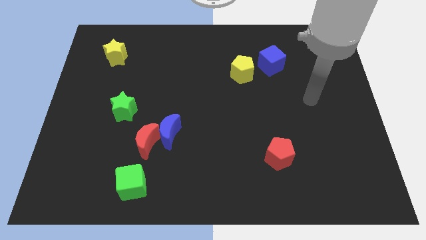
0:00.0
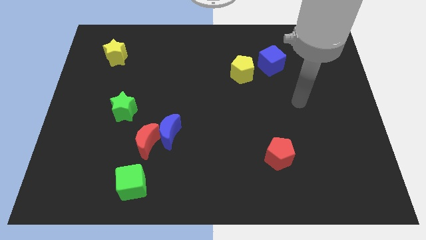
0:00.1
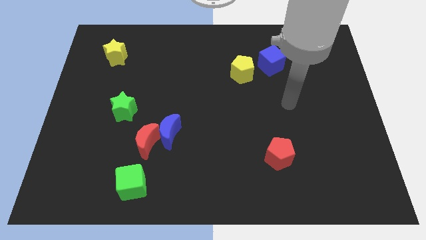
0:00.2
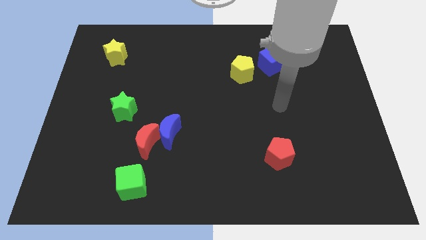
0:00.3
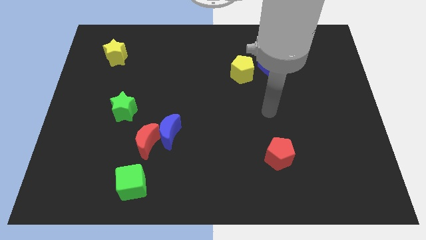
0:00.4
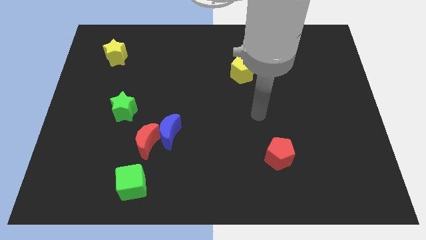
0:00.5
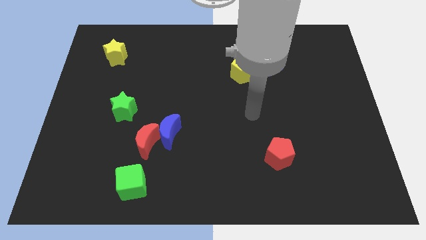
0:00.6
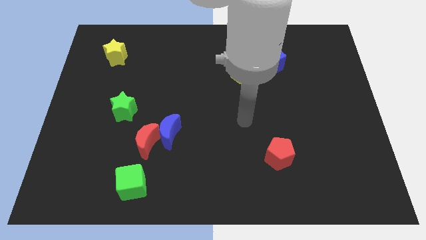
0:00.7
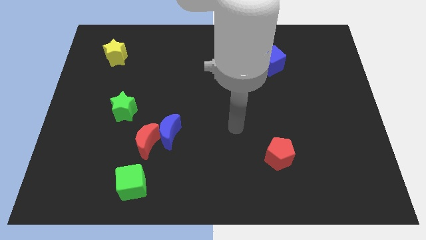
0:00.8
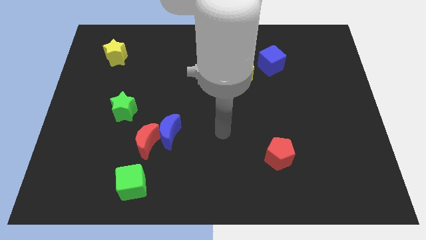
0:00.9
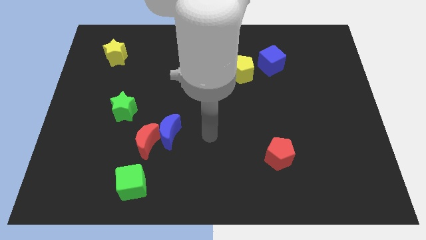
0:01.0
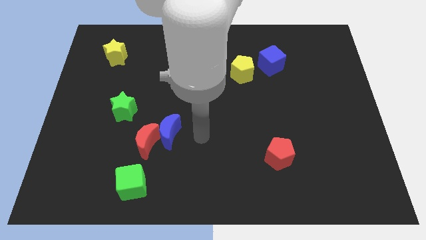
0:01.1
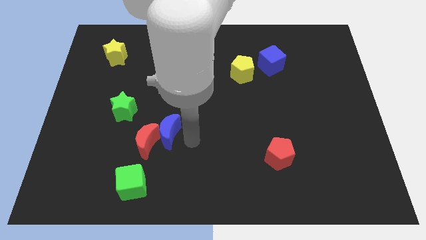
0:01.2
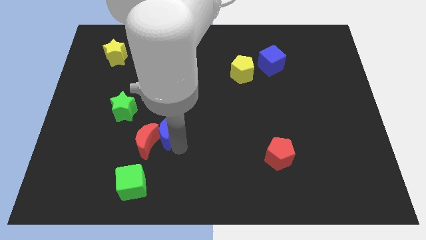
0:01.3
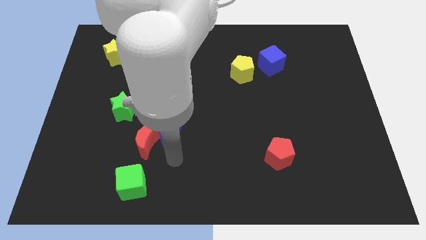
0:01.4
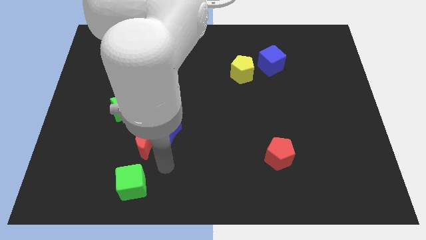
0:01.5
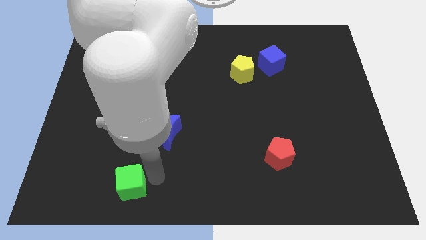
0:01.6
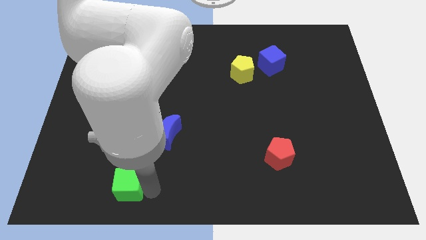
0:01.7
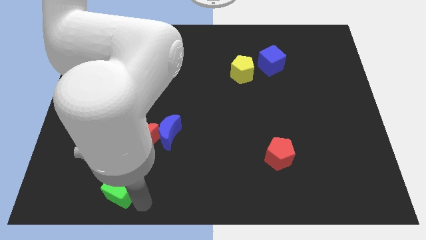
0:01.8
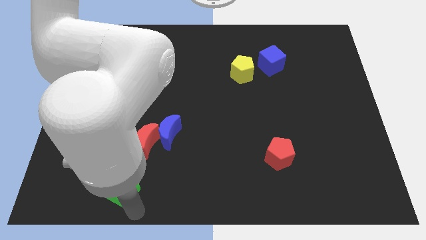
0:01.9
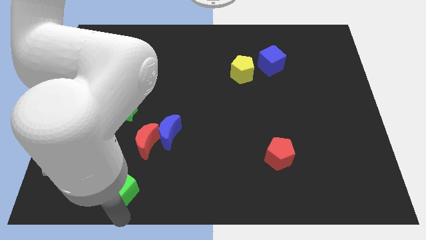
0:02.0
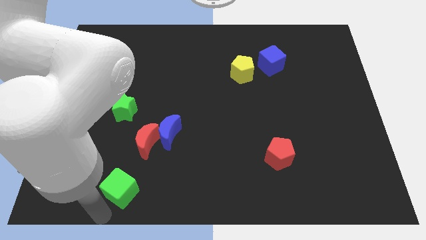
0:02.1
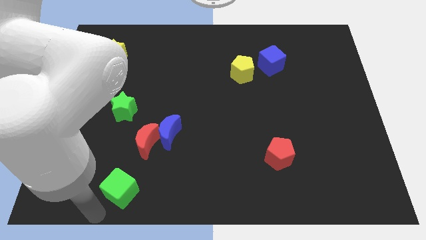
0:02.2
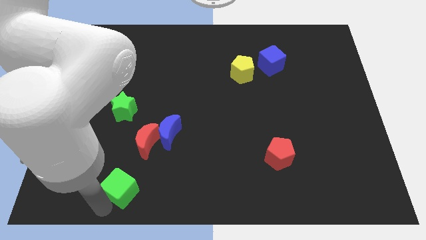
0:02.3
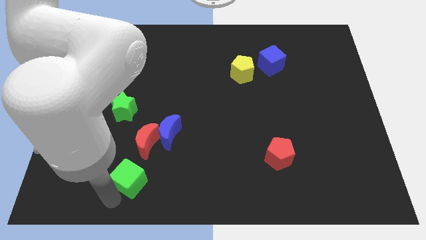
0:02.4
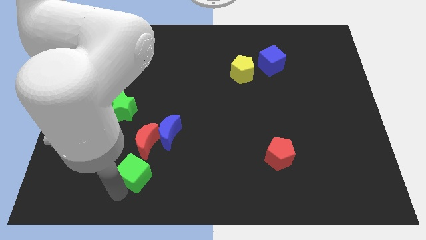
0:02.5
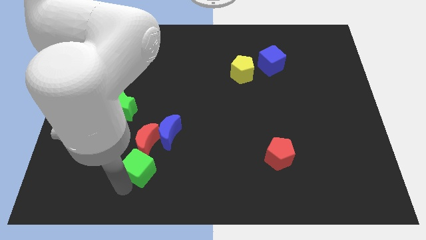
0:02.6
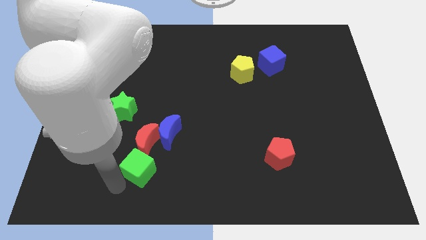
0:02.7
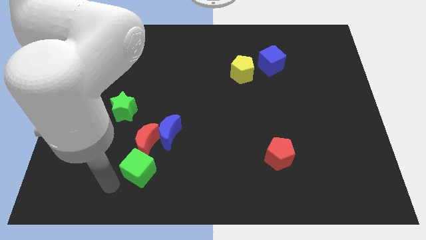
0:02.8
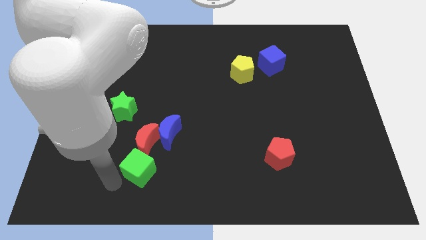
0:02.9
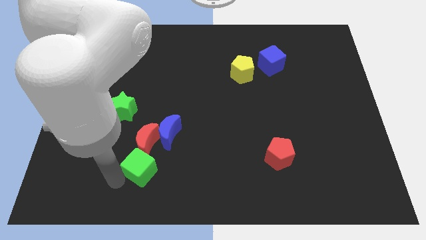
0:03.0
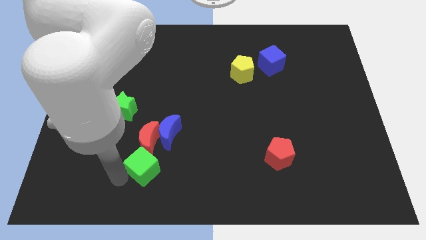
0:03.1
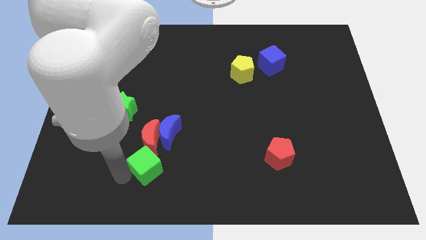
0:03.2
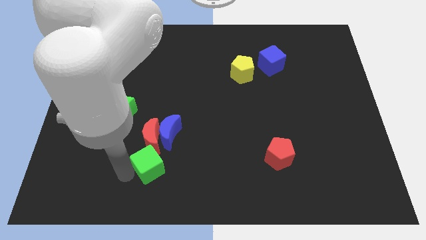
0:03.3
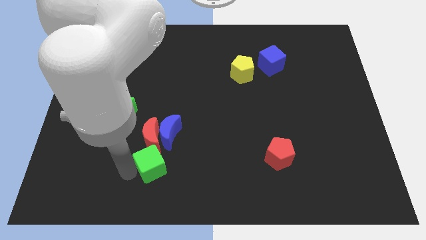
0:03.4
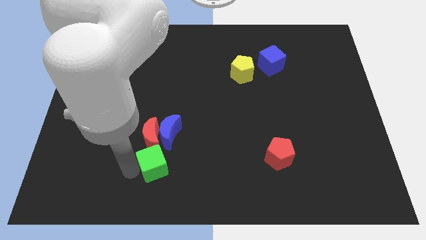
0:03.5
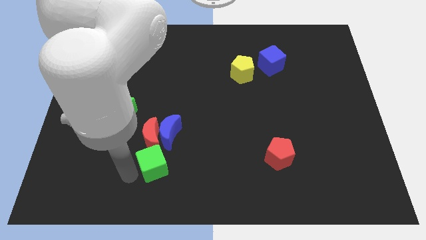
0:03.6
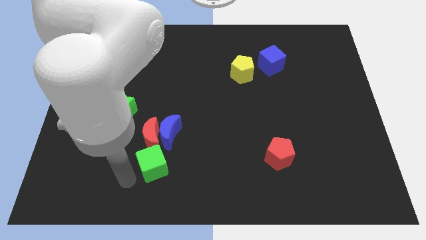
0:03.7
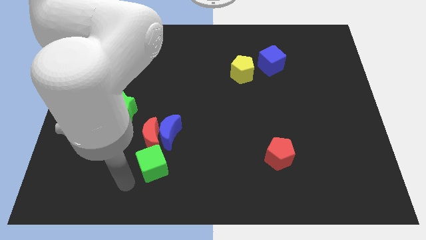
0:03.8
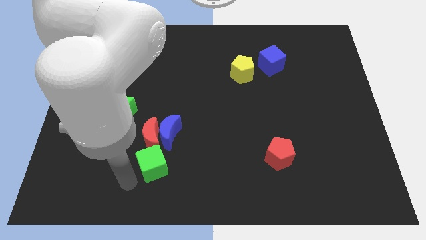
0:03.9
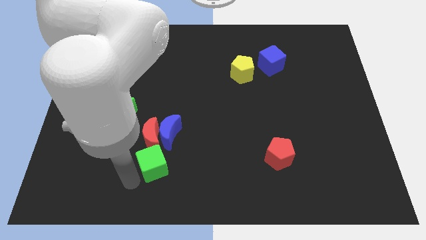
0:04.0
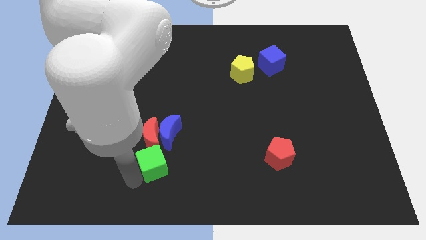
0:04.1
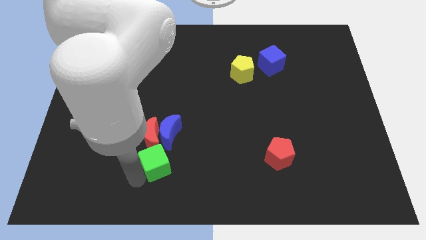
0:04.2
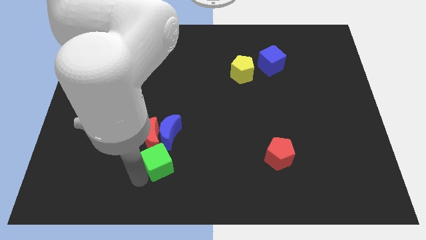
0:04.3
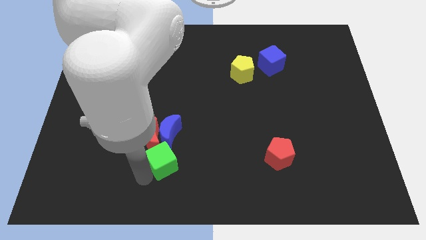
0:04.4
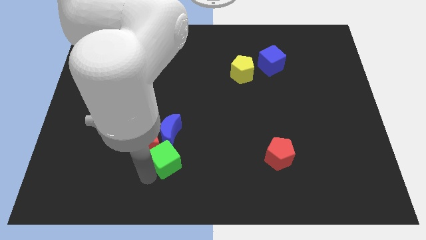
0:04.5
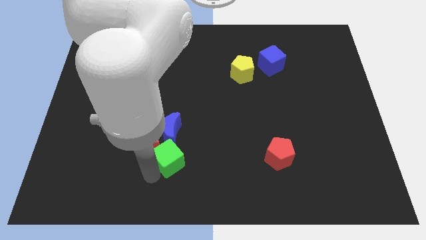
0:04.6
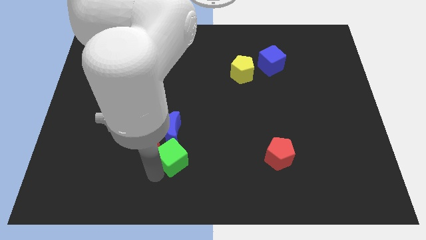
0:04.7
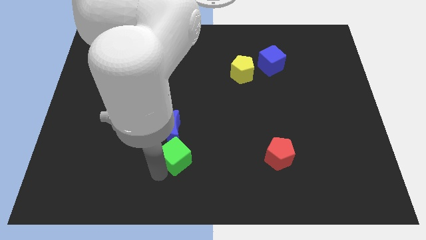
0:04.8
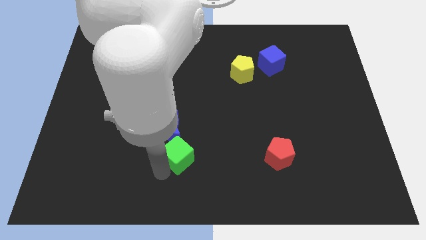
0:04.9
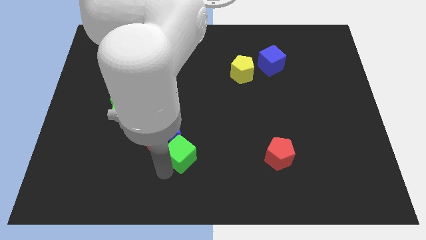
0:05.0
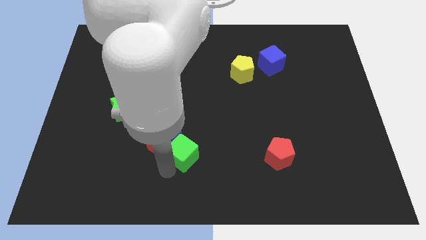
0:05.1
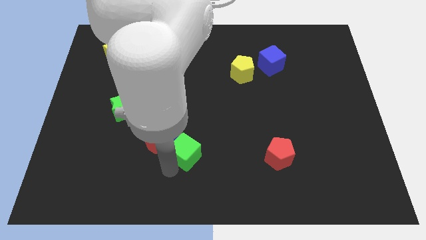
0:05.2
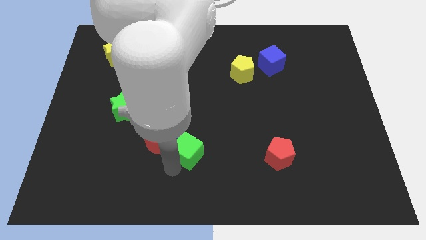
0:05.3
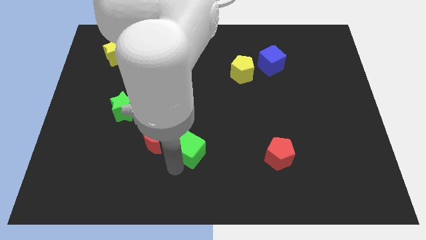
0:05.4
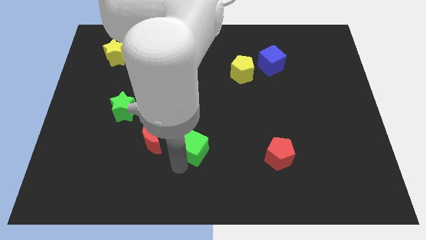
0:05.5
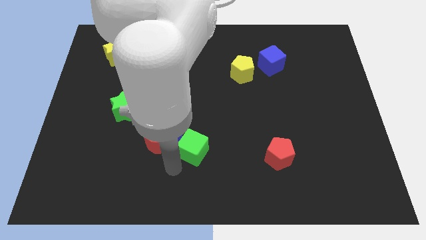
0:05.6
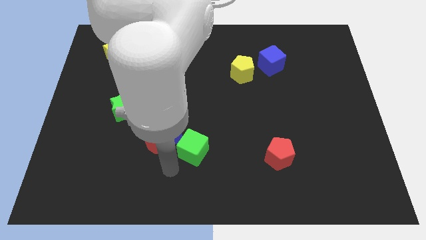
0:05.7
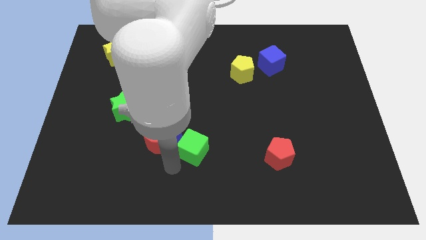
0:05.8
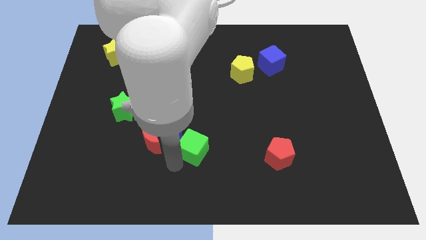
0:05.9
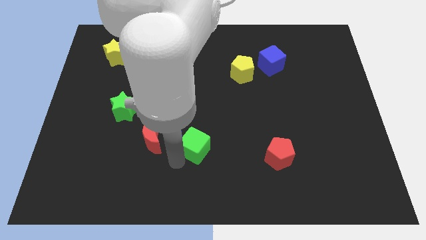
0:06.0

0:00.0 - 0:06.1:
slide the green cube to the right side of the blue moon

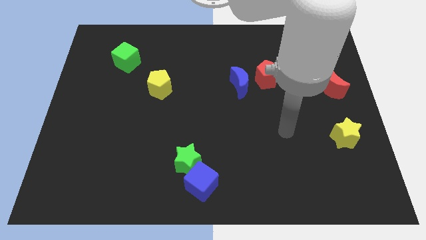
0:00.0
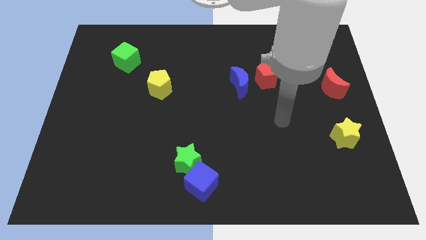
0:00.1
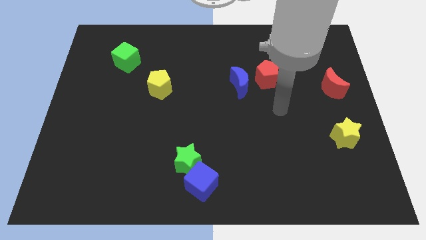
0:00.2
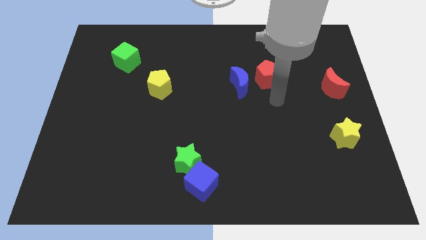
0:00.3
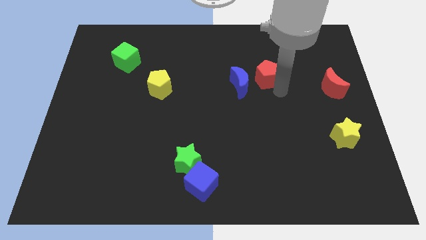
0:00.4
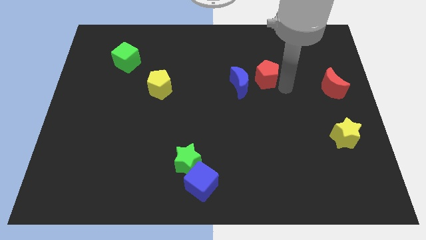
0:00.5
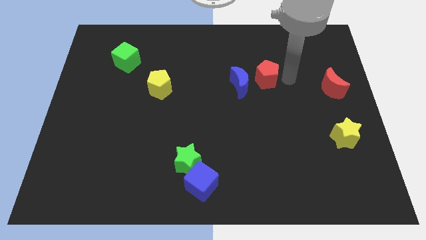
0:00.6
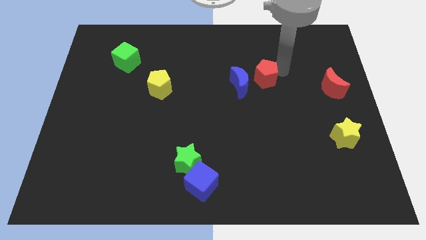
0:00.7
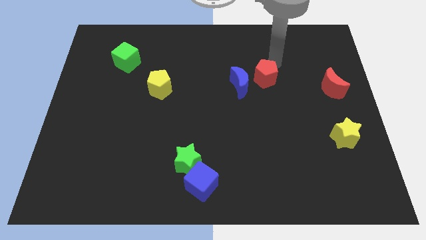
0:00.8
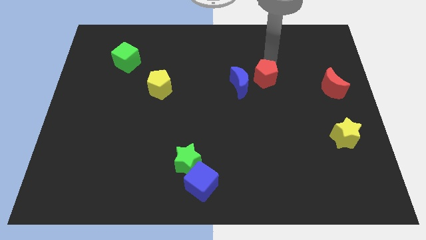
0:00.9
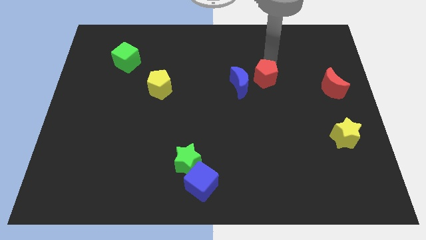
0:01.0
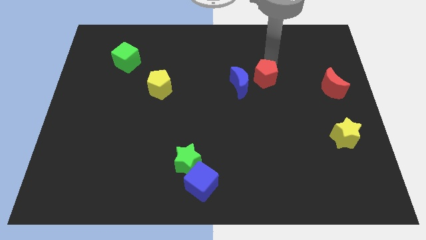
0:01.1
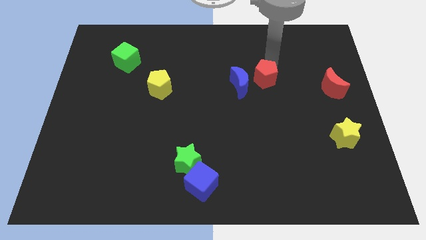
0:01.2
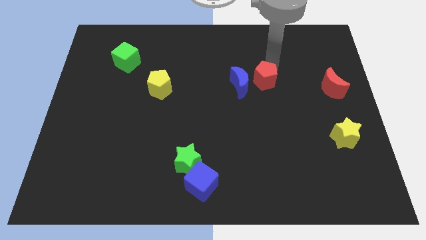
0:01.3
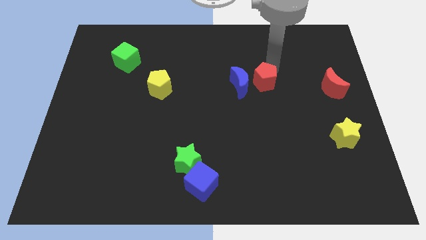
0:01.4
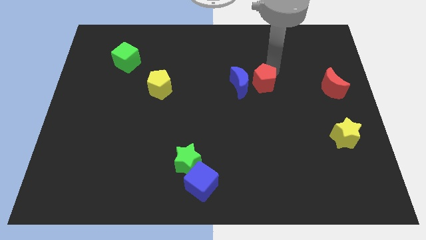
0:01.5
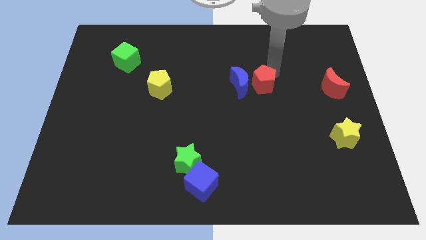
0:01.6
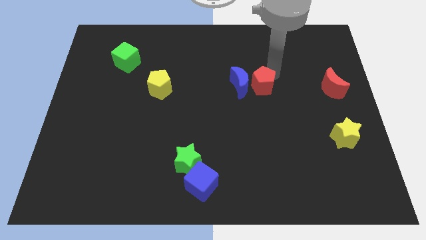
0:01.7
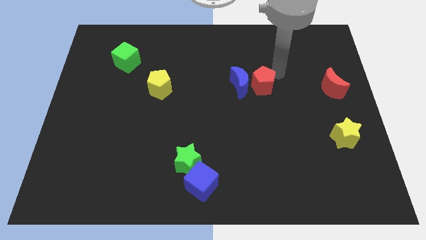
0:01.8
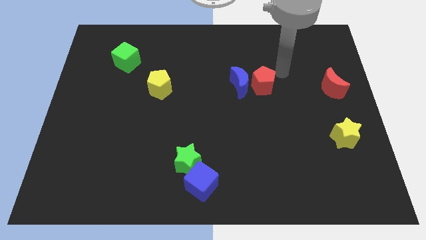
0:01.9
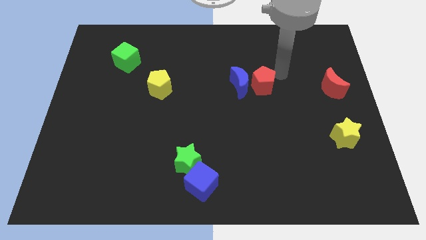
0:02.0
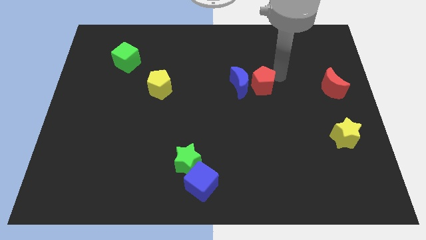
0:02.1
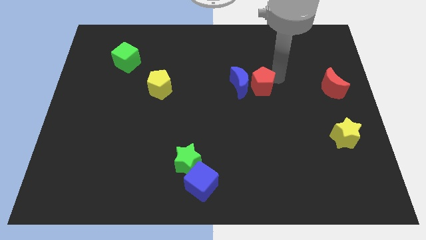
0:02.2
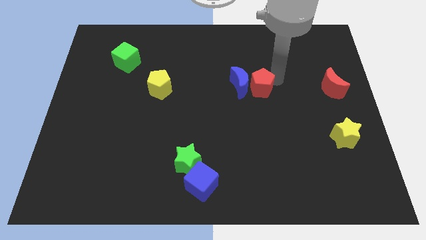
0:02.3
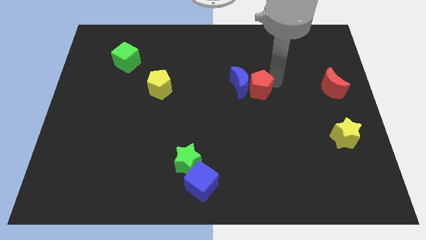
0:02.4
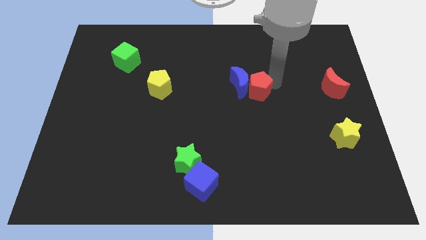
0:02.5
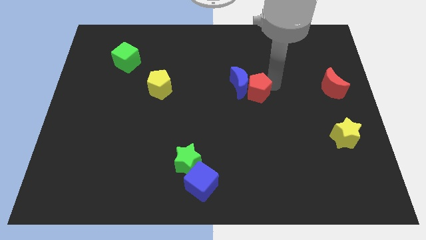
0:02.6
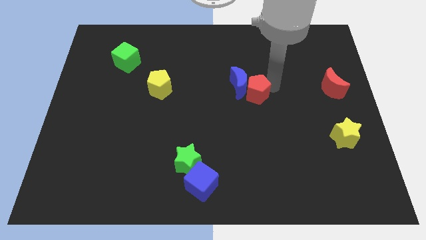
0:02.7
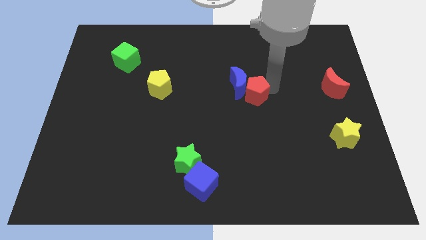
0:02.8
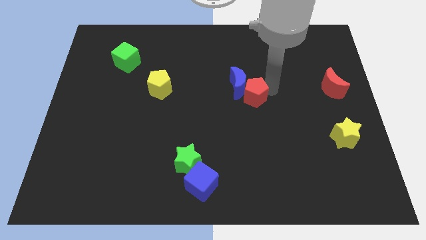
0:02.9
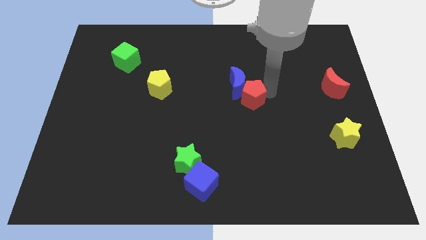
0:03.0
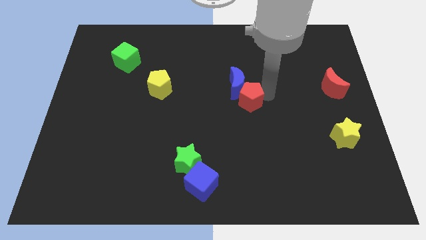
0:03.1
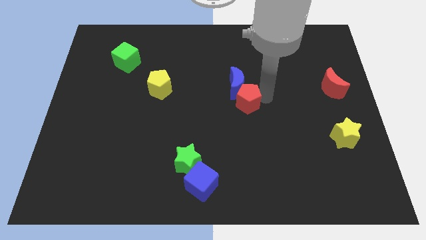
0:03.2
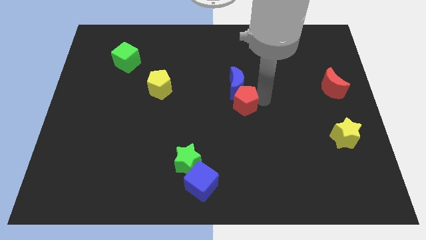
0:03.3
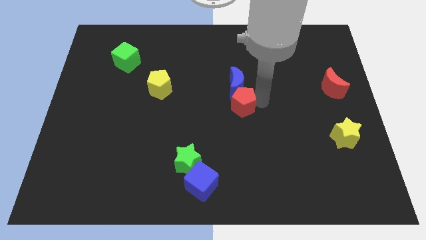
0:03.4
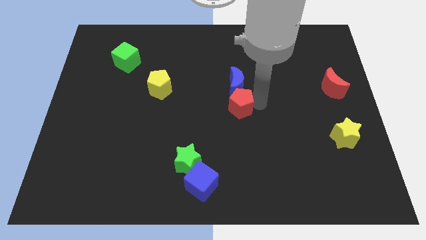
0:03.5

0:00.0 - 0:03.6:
slide the red pentagon to the bottom left of the blue moon
